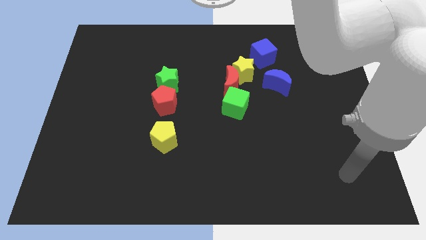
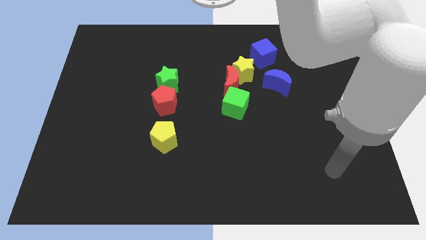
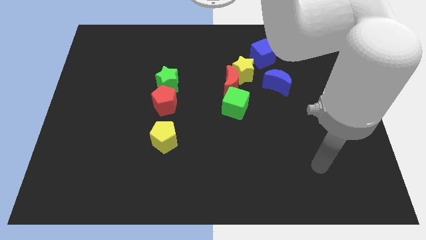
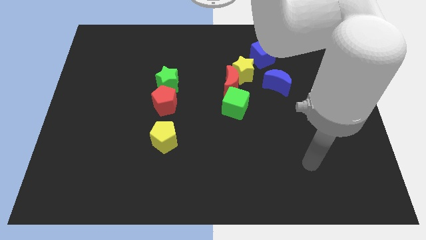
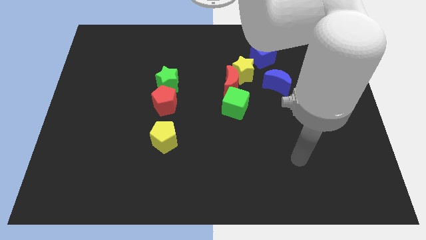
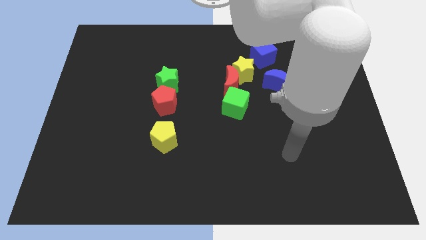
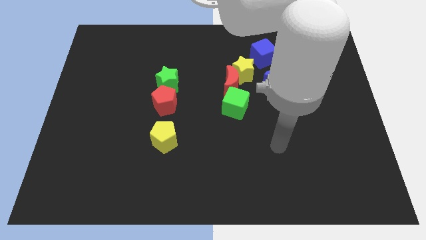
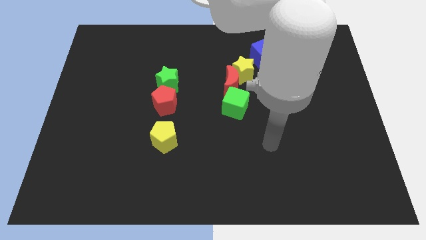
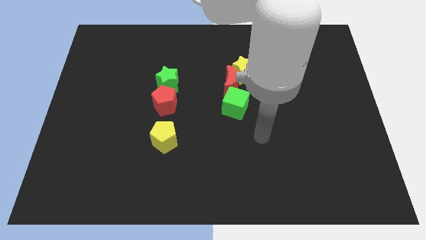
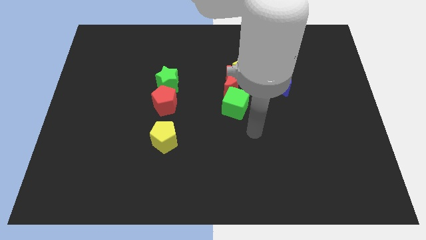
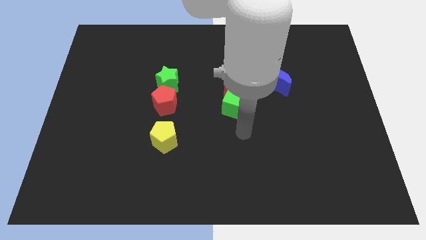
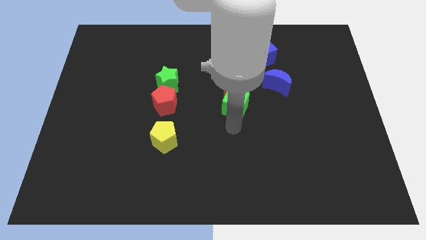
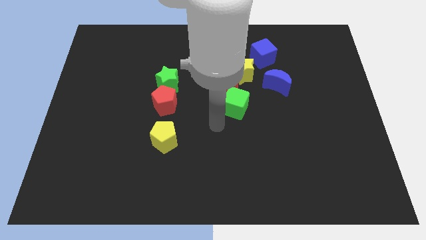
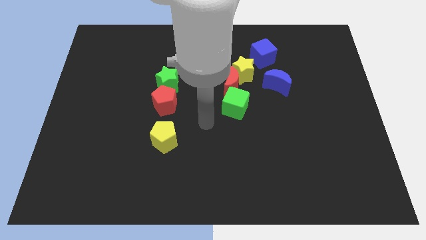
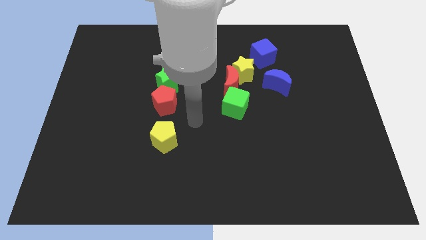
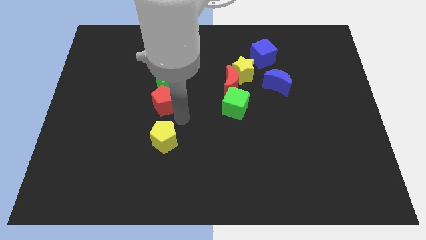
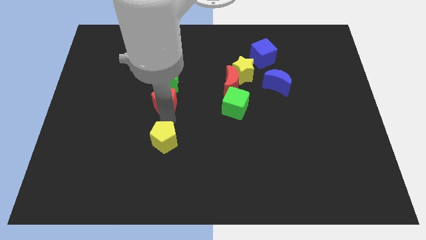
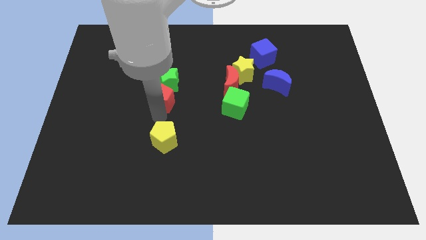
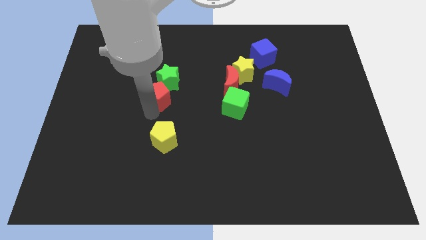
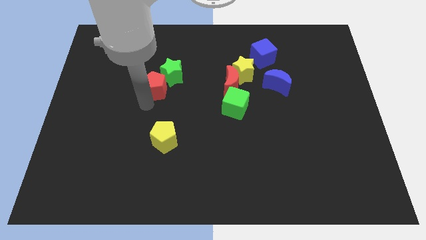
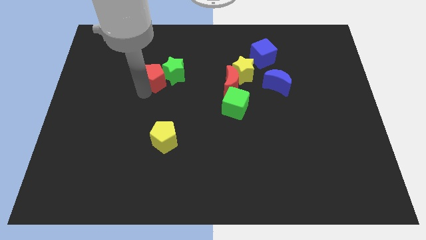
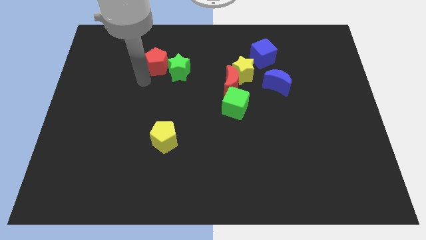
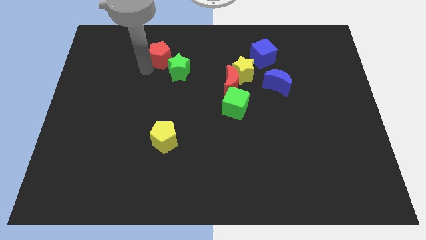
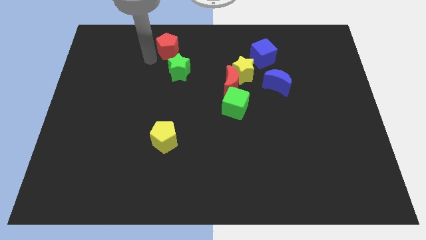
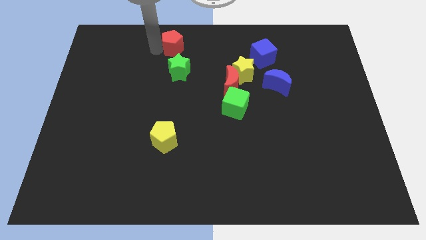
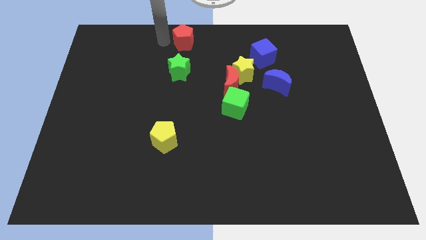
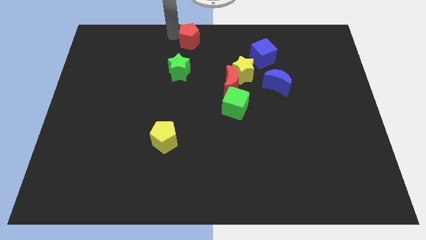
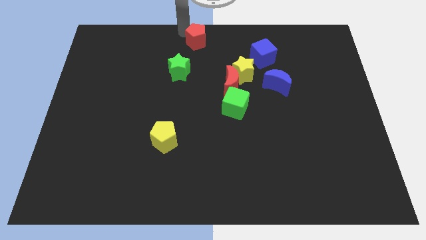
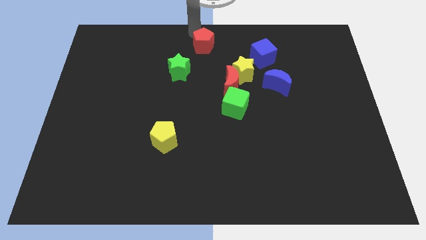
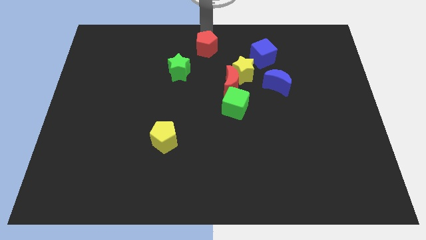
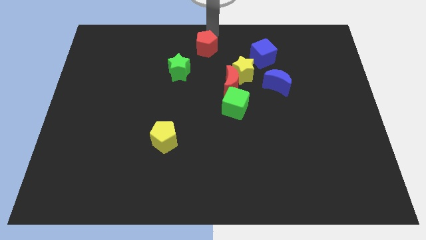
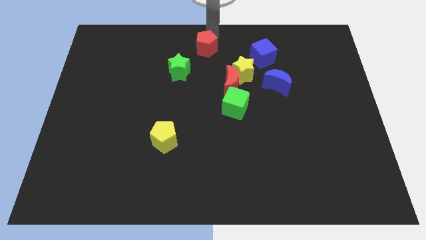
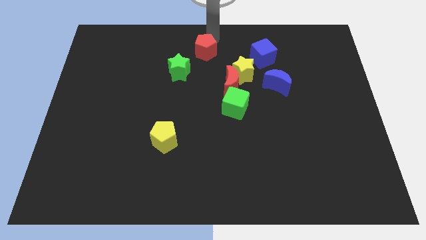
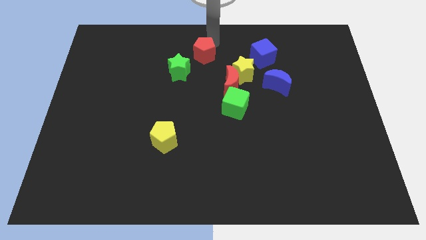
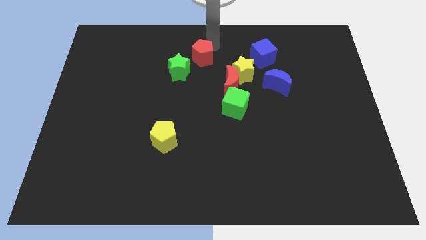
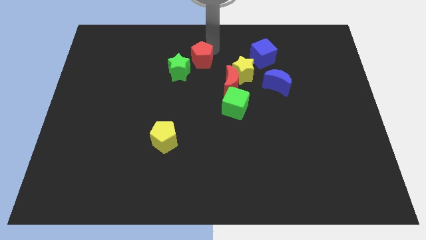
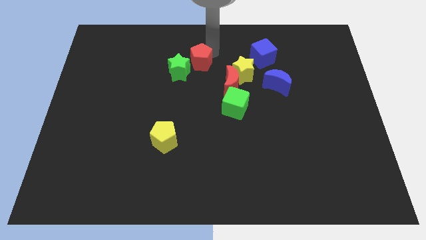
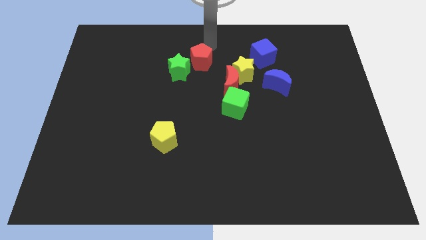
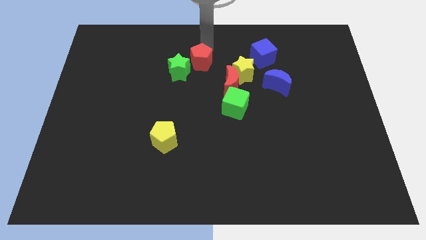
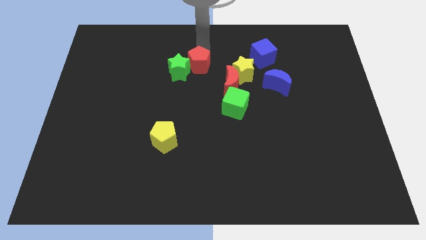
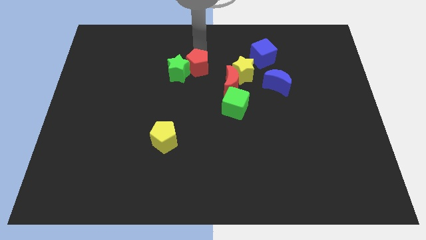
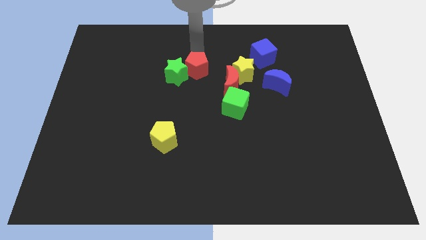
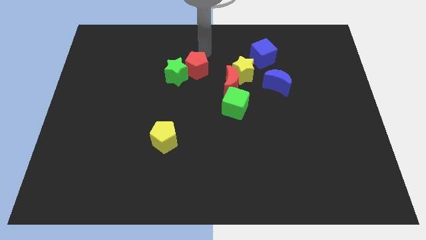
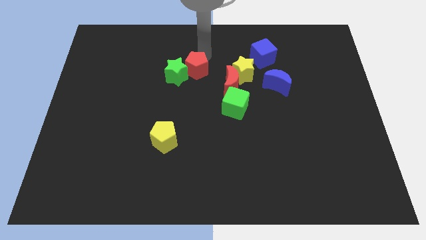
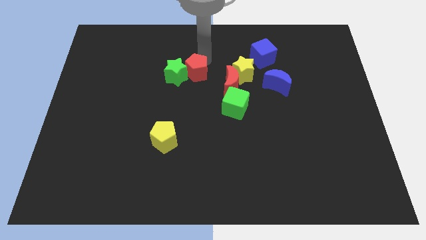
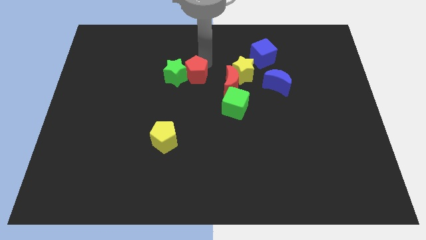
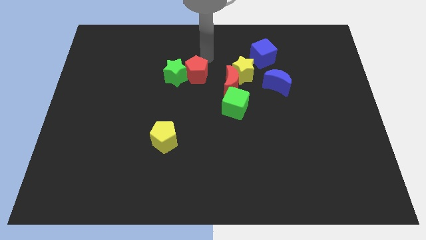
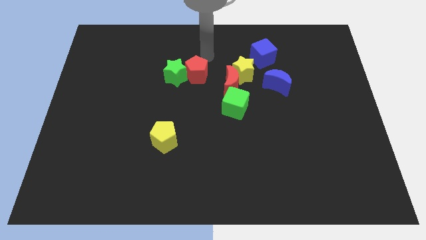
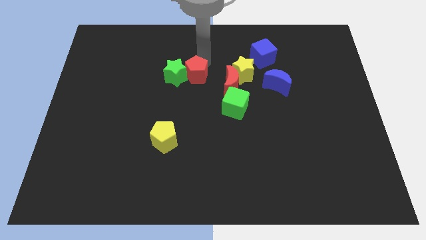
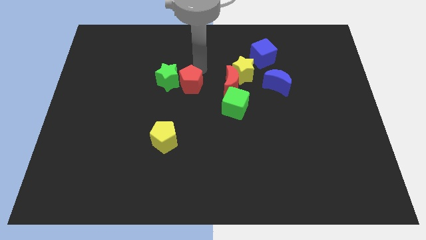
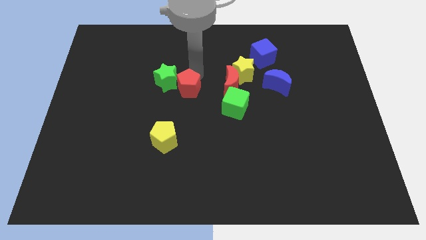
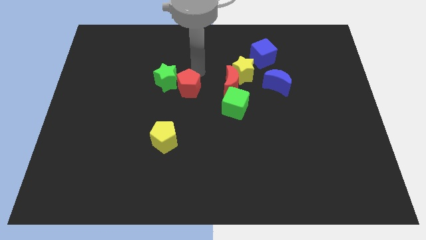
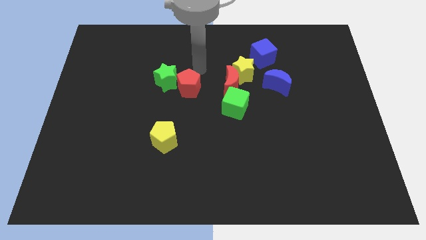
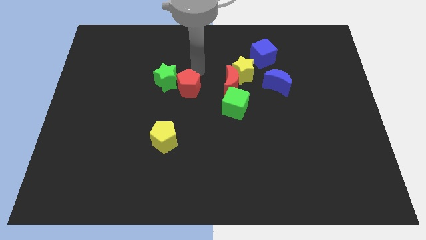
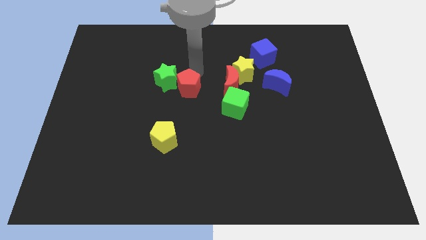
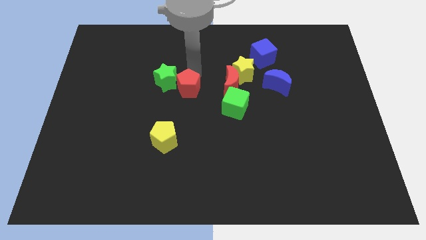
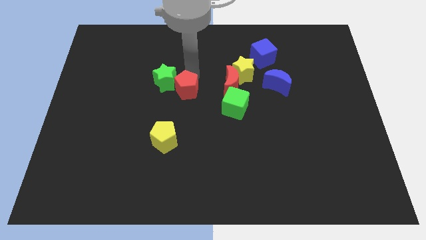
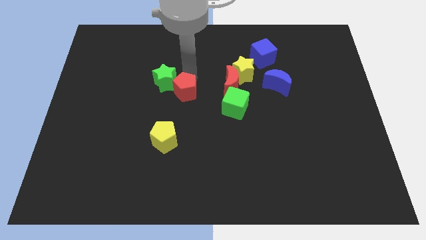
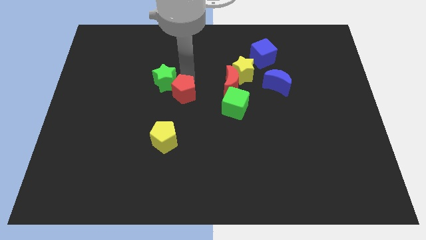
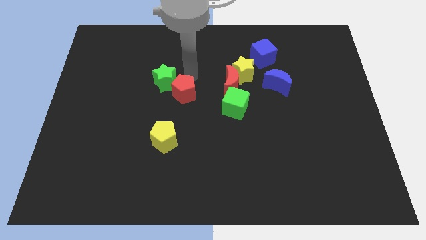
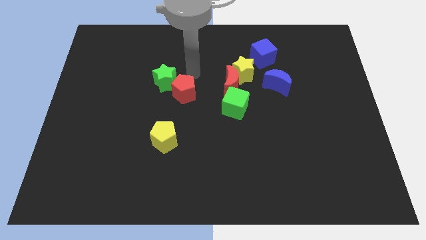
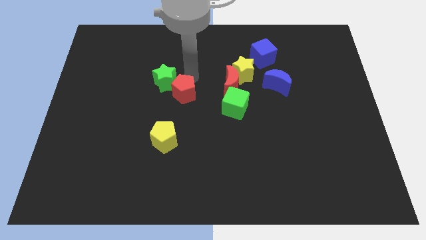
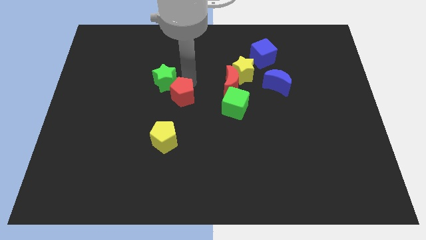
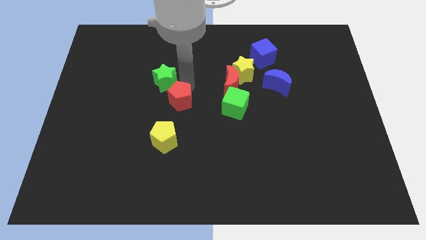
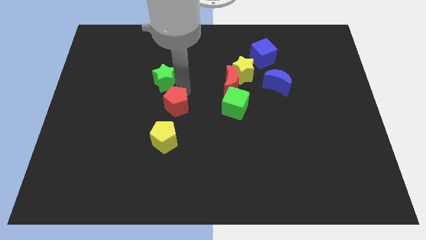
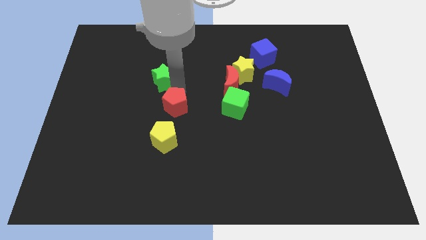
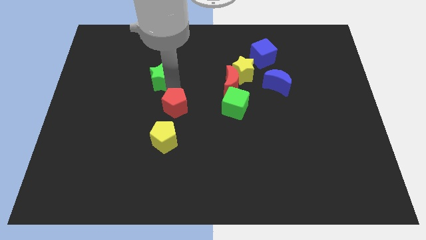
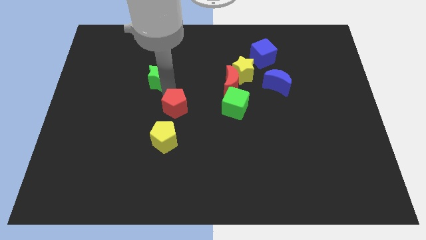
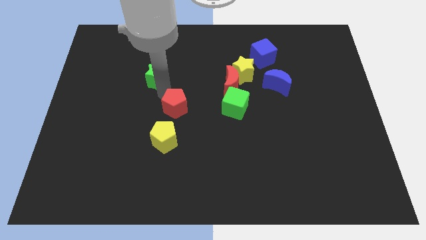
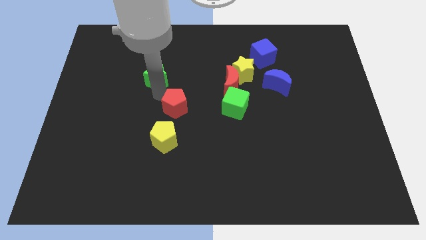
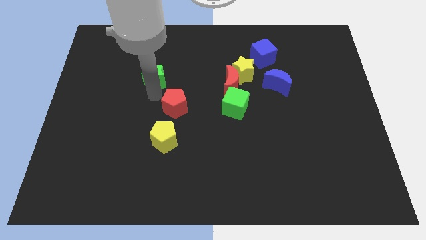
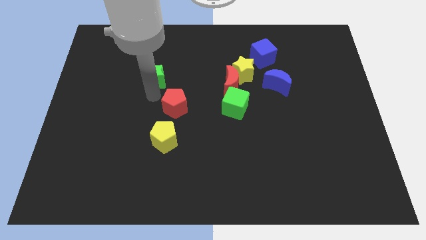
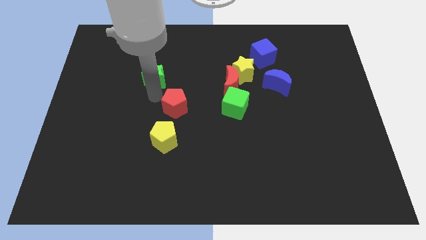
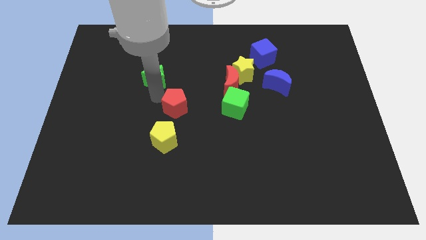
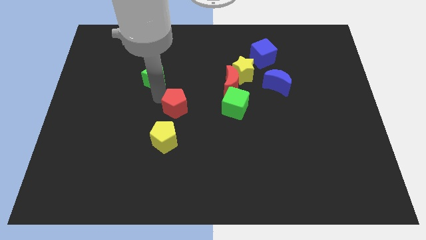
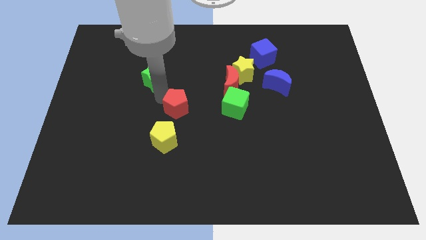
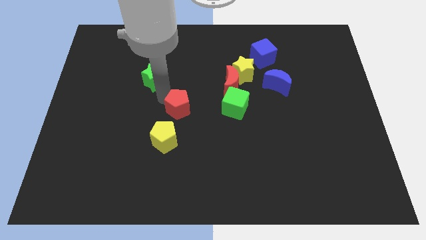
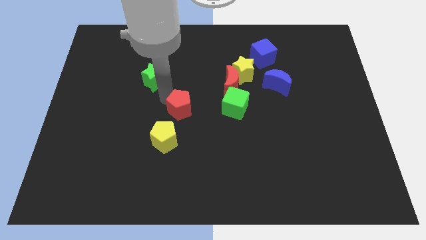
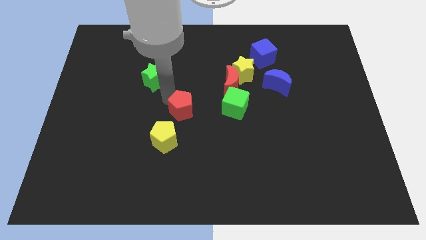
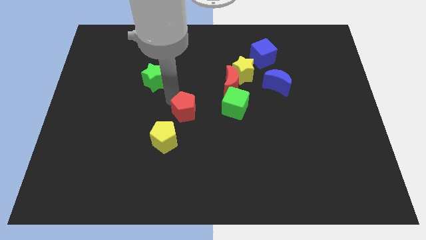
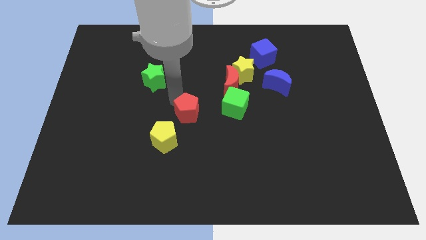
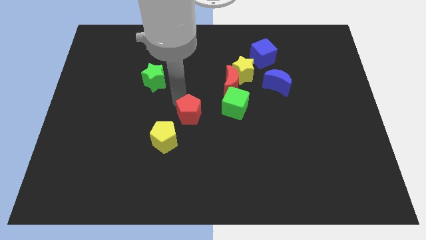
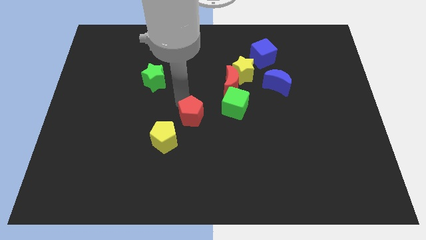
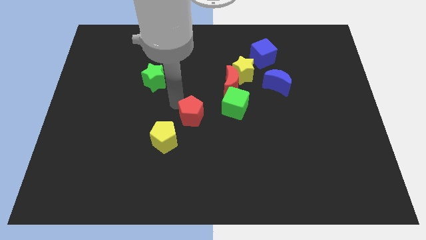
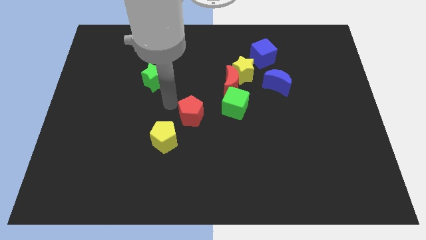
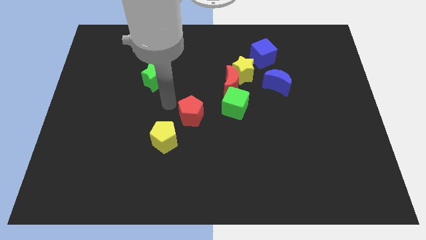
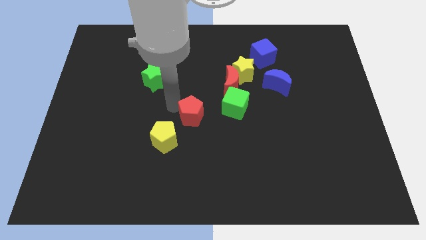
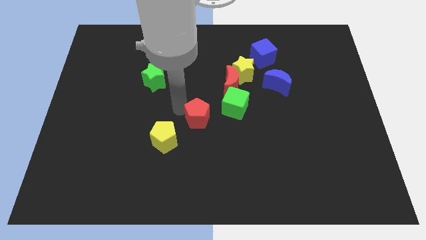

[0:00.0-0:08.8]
push the red pentagon to the bottom left of the green cube
